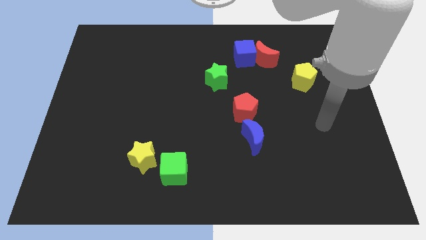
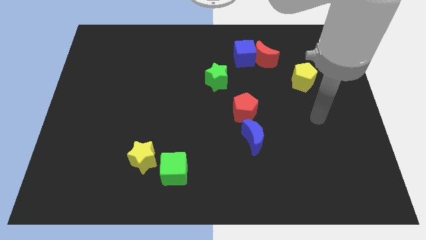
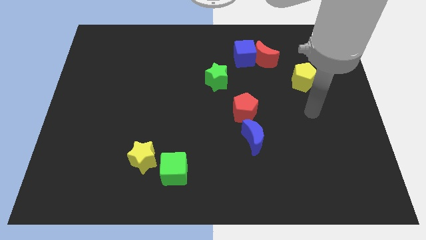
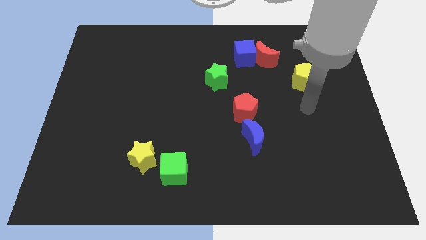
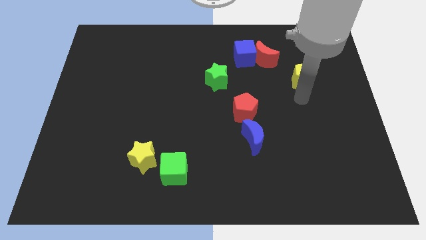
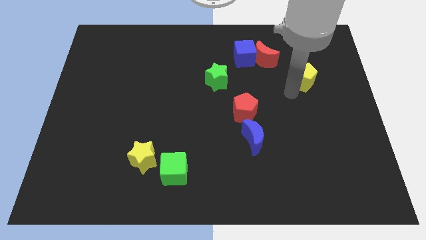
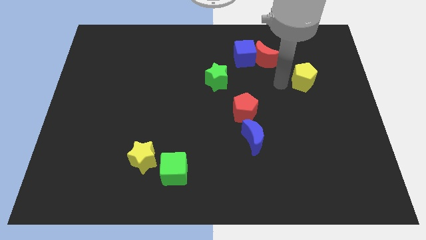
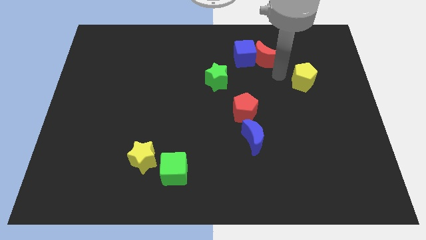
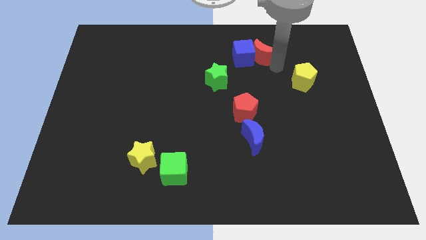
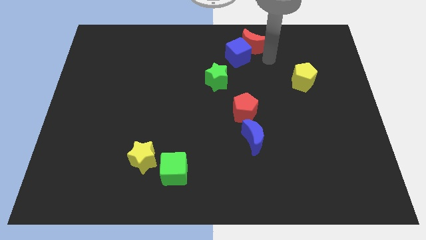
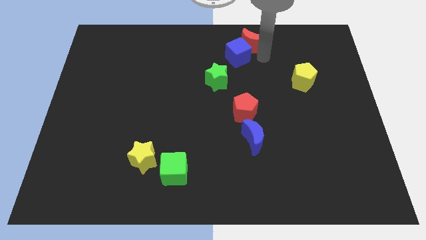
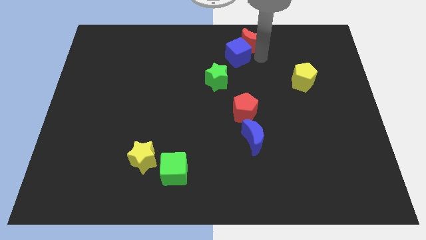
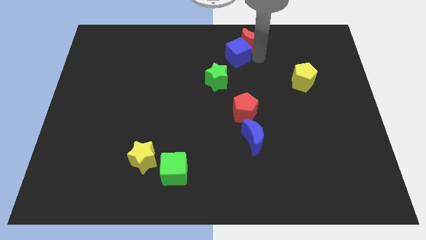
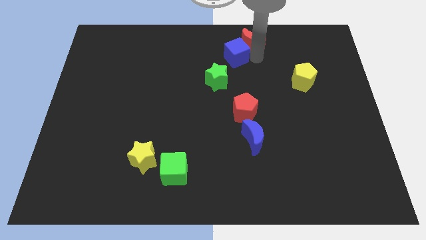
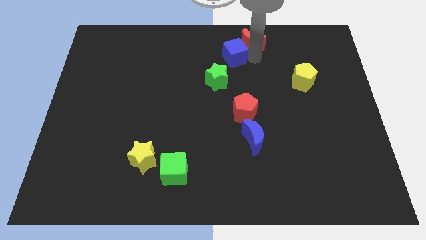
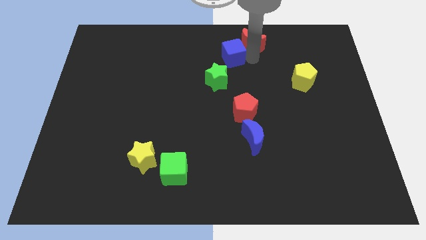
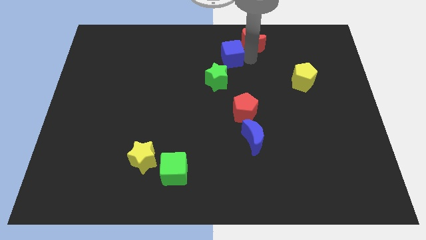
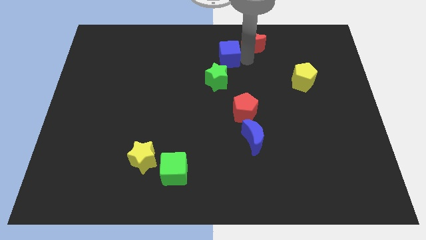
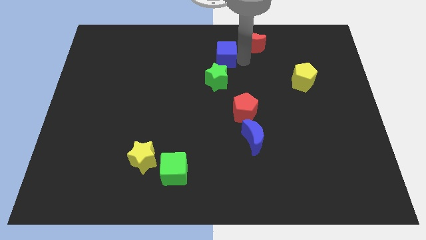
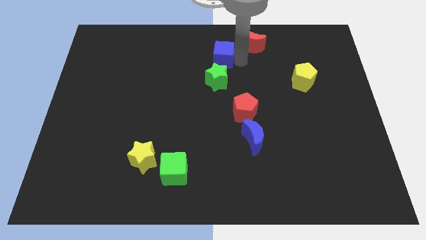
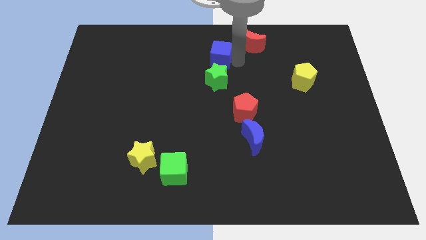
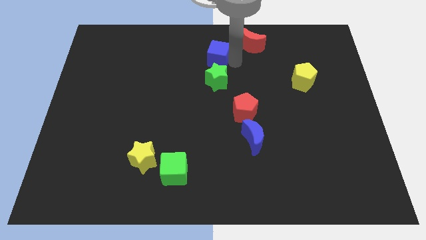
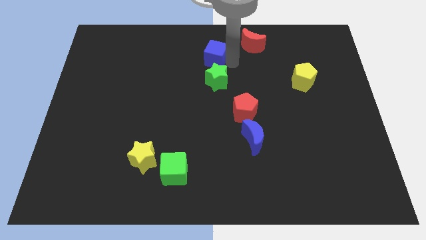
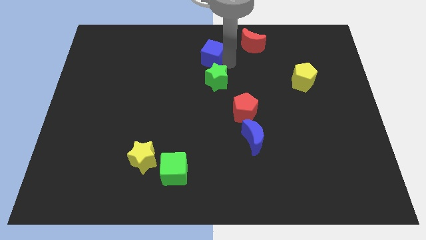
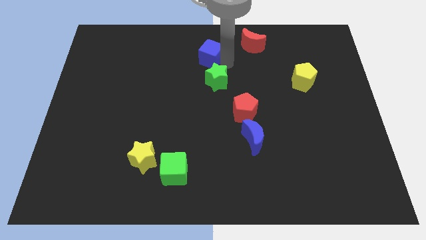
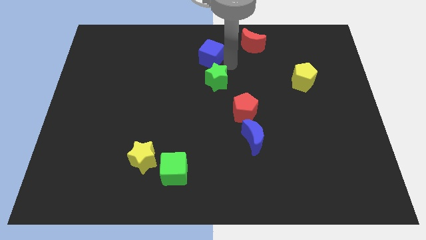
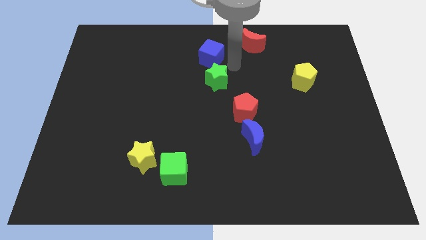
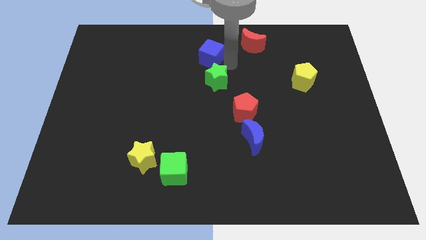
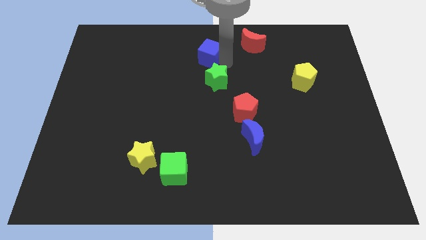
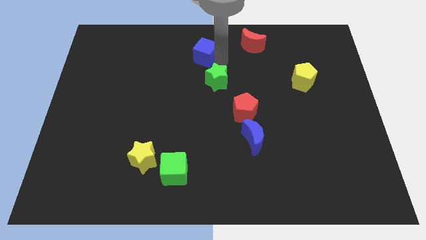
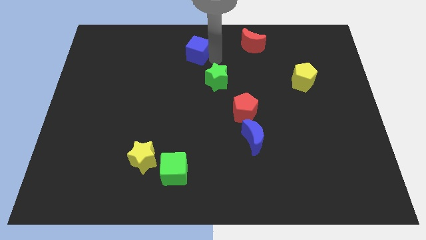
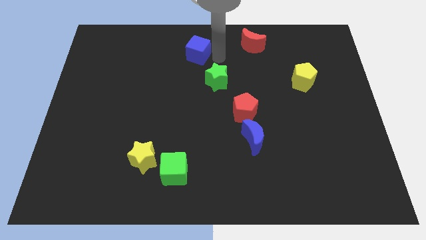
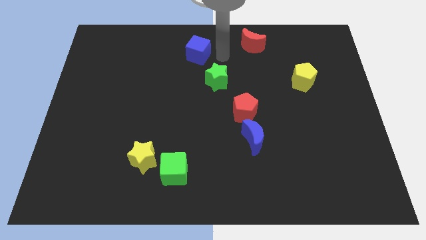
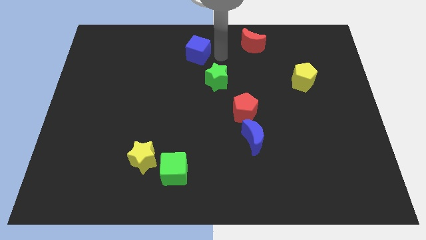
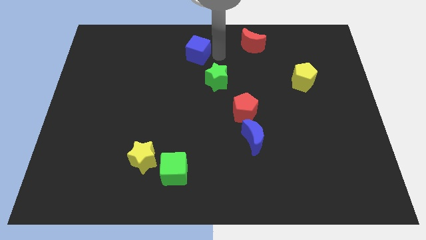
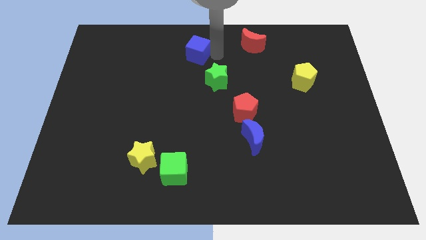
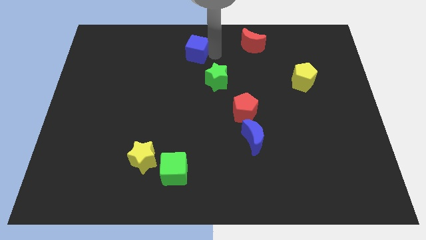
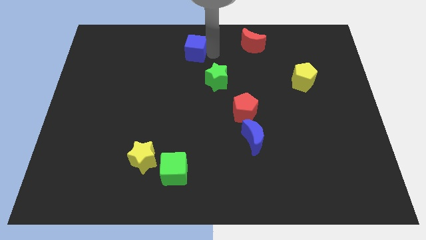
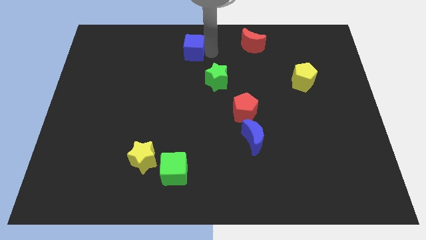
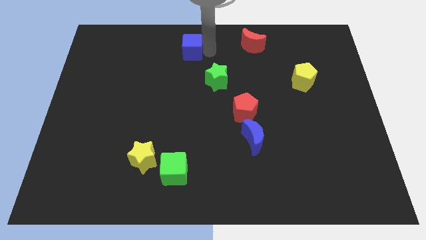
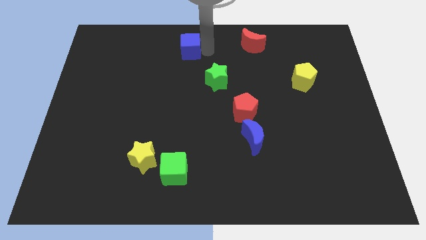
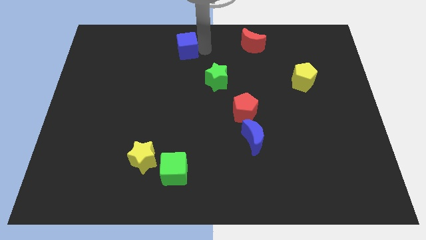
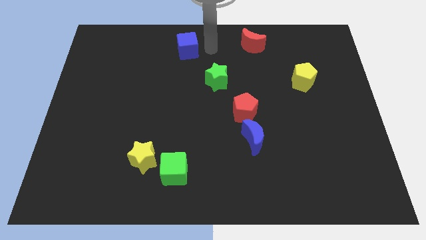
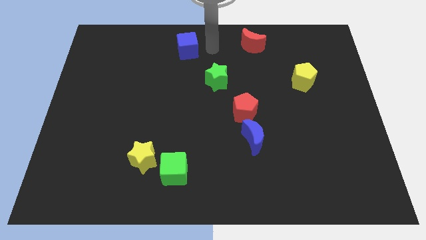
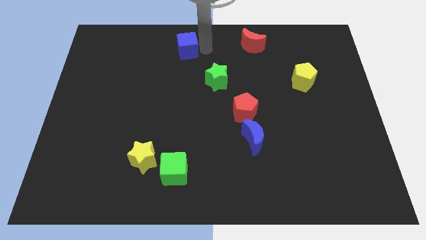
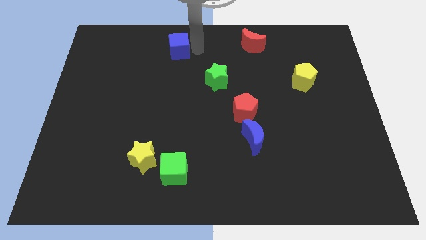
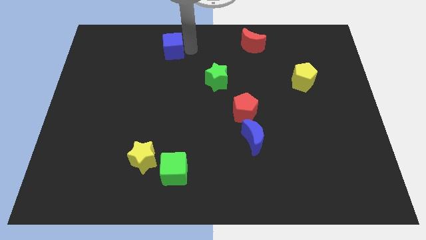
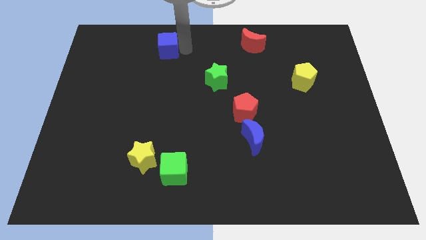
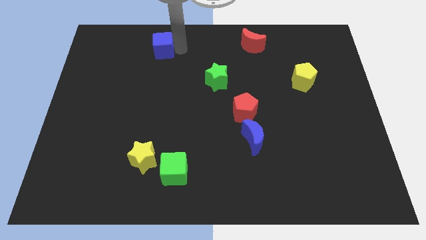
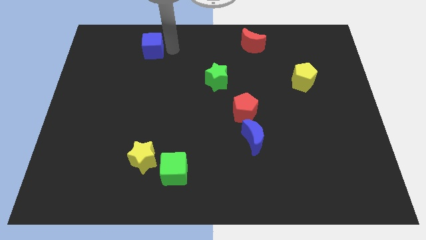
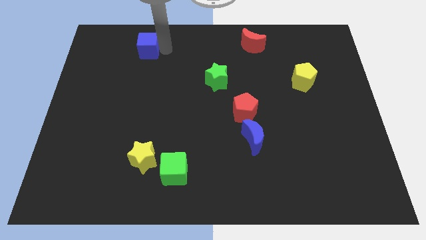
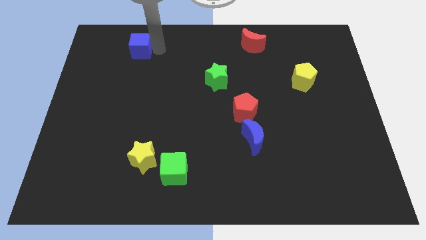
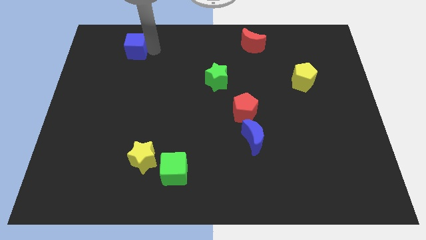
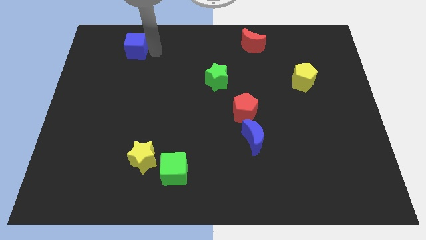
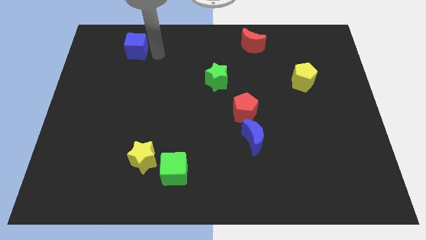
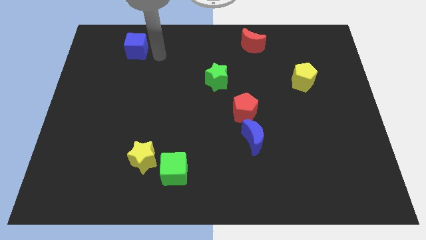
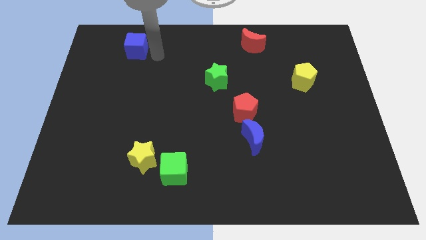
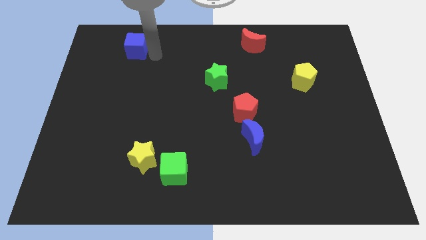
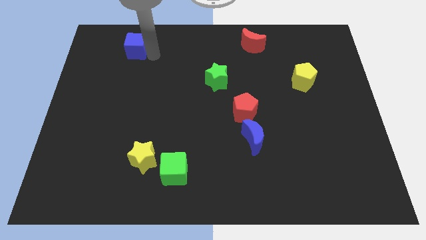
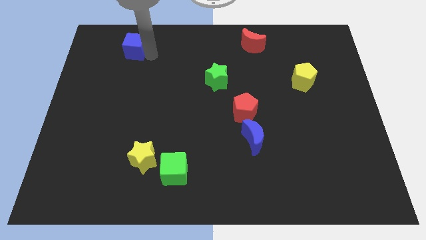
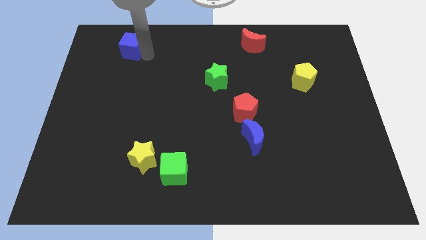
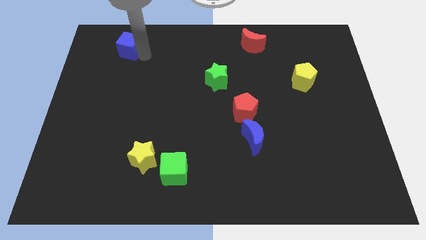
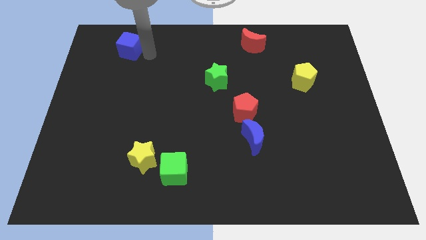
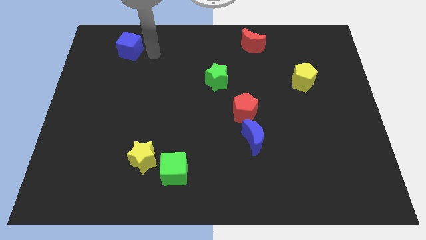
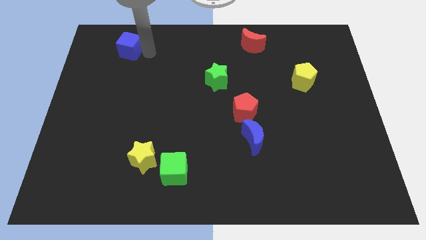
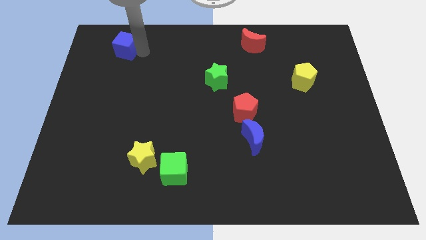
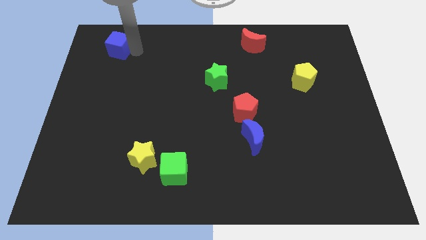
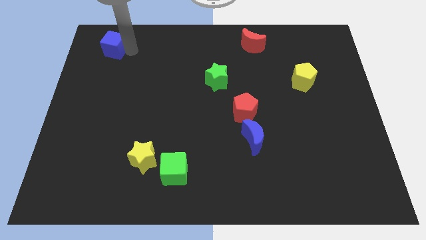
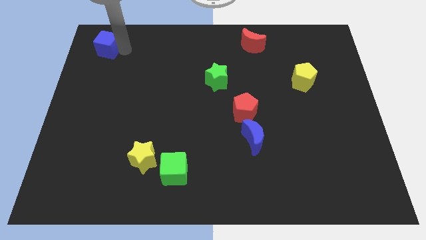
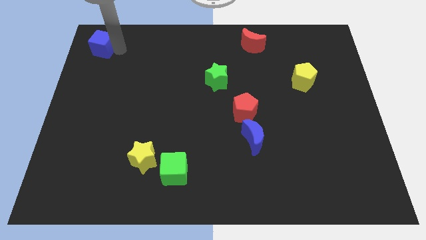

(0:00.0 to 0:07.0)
push the blue cube to the top left of the board
